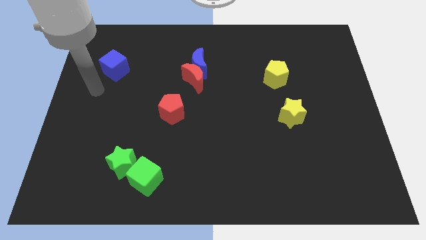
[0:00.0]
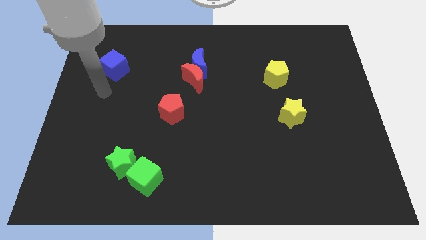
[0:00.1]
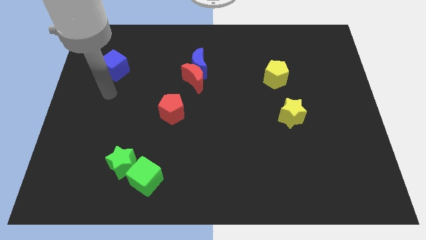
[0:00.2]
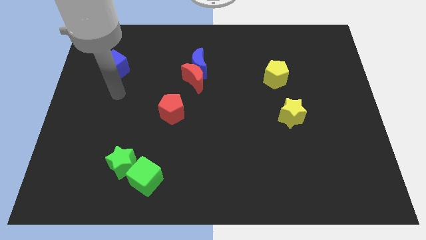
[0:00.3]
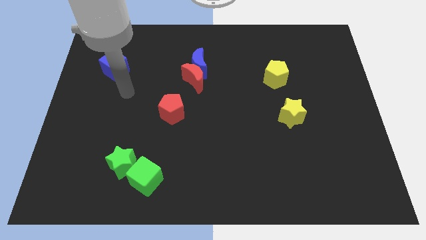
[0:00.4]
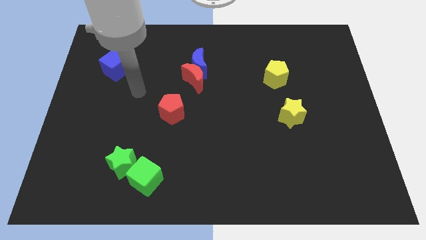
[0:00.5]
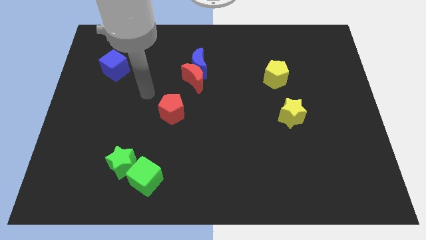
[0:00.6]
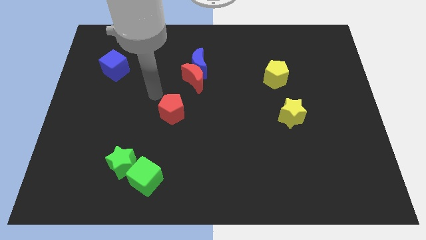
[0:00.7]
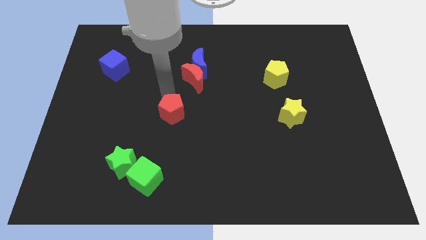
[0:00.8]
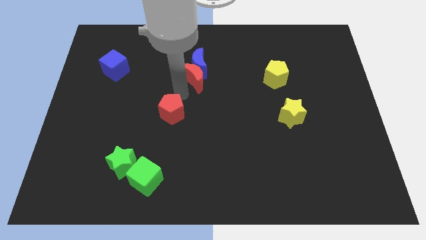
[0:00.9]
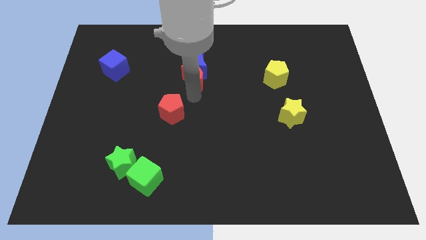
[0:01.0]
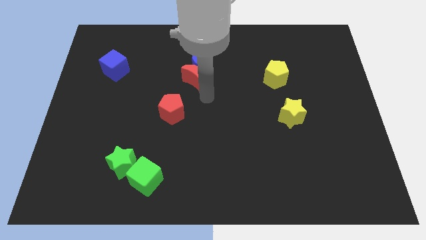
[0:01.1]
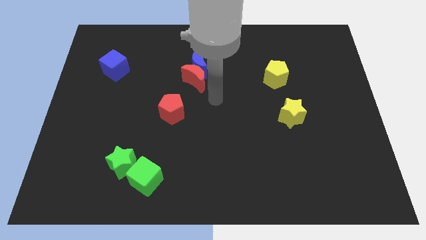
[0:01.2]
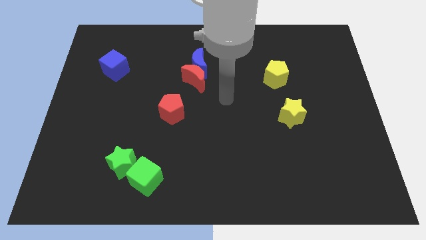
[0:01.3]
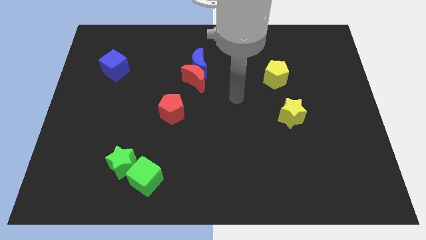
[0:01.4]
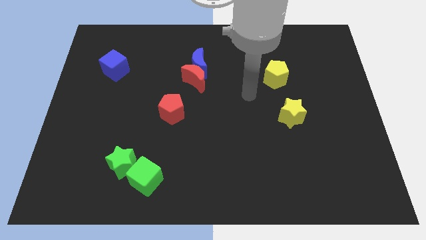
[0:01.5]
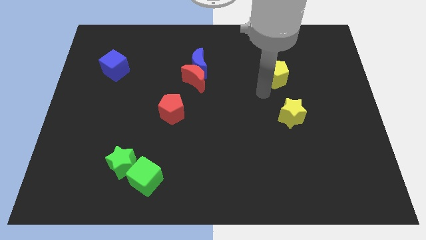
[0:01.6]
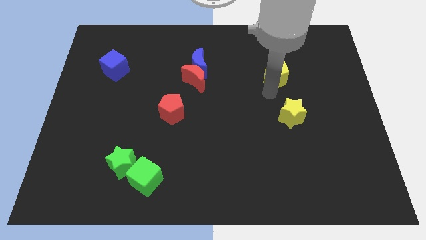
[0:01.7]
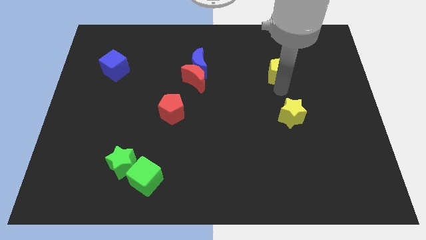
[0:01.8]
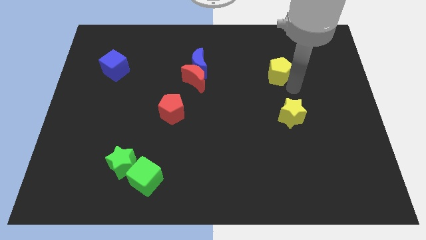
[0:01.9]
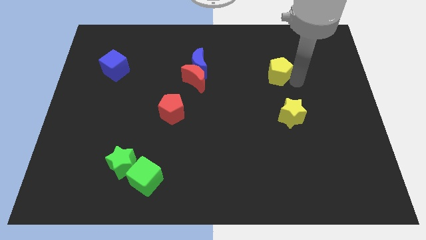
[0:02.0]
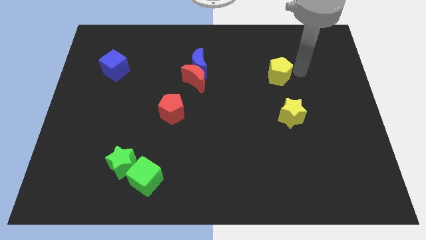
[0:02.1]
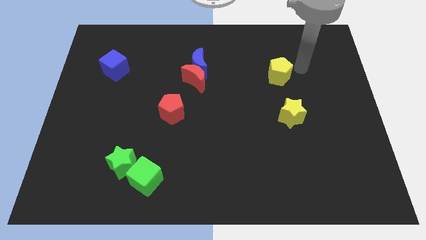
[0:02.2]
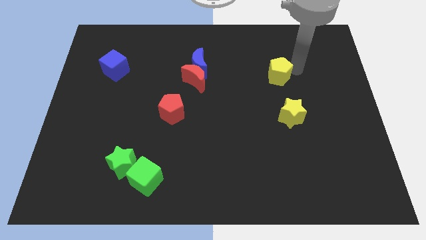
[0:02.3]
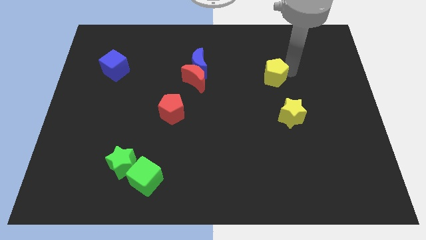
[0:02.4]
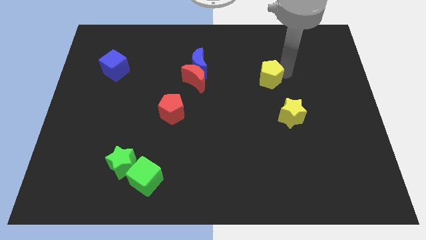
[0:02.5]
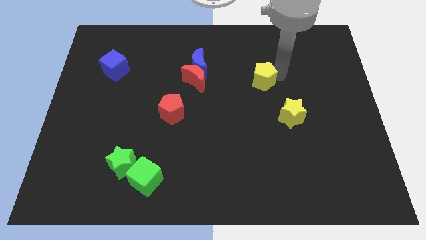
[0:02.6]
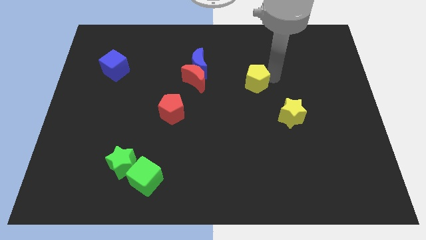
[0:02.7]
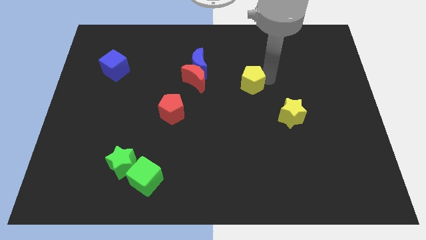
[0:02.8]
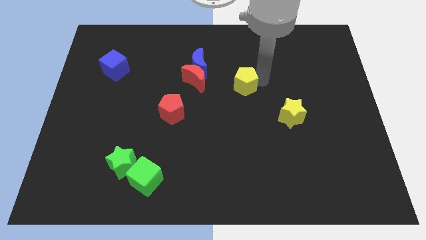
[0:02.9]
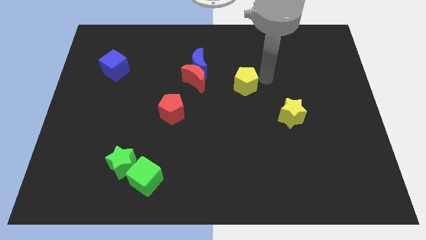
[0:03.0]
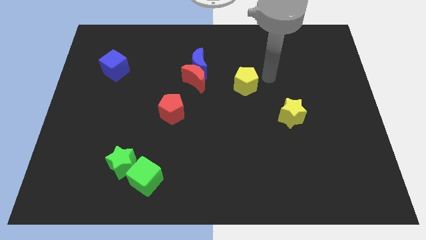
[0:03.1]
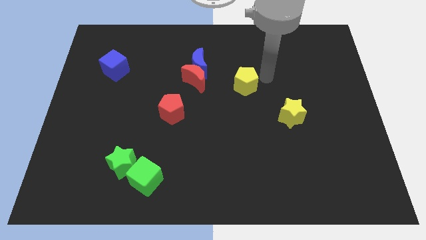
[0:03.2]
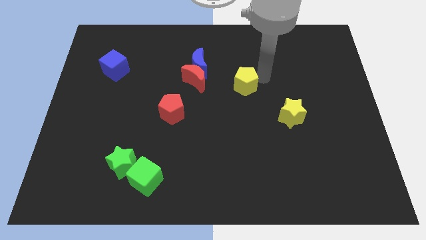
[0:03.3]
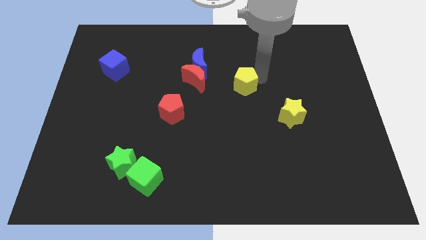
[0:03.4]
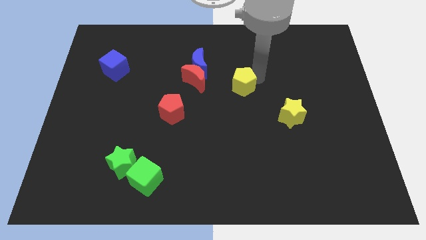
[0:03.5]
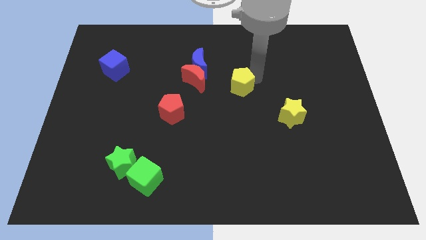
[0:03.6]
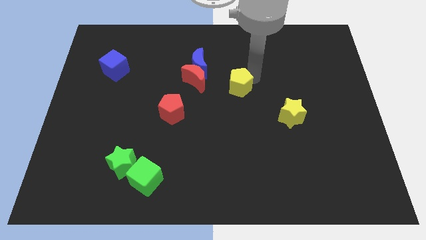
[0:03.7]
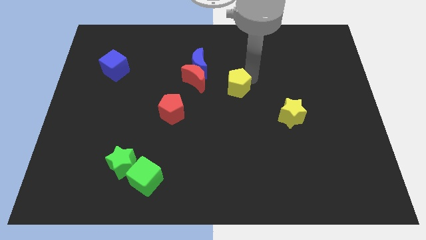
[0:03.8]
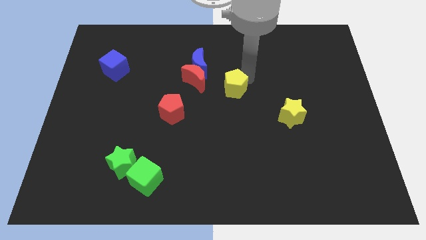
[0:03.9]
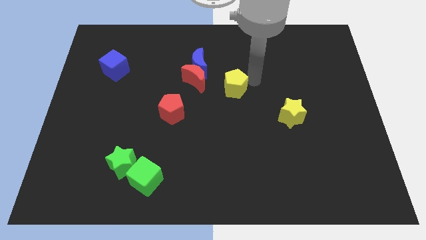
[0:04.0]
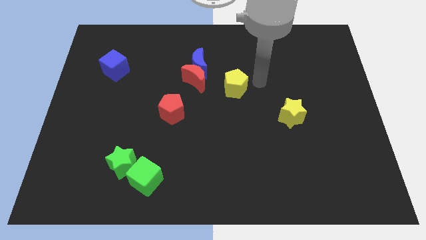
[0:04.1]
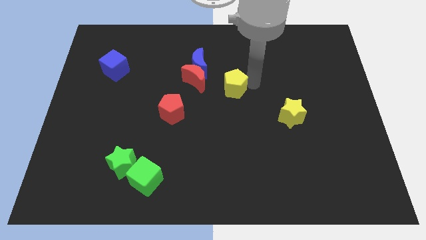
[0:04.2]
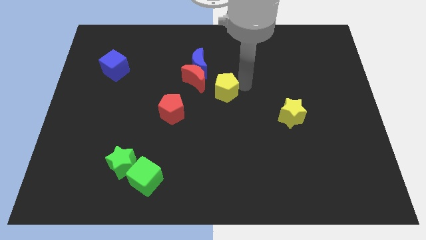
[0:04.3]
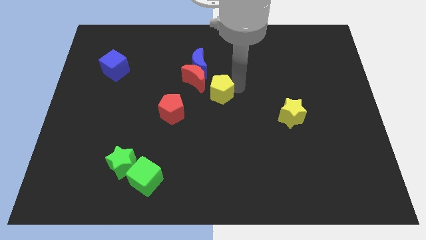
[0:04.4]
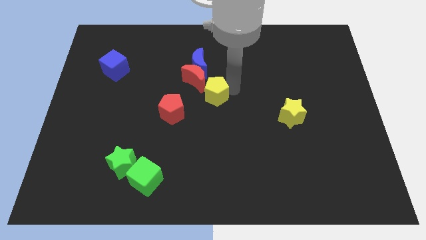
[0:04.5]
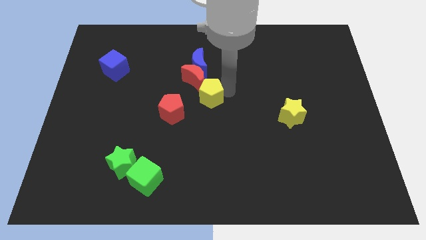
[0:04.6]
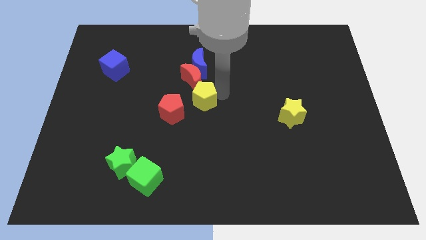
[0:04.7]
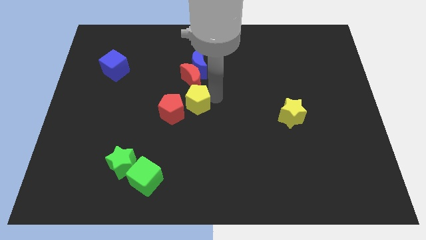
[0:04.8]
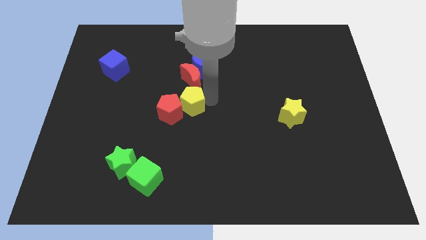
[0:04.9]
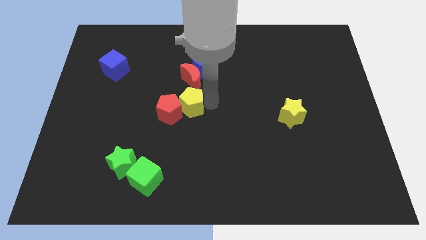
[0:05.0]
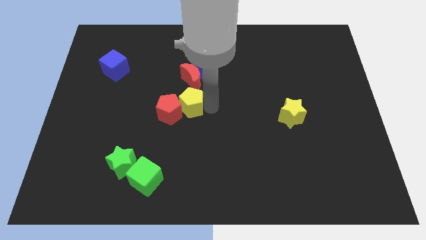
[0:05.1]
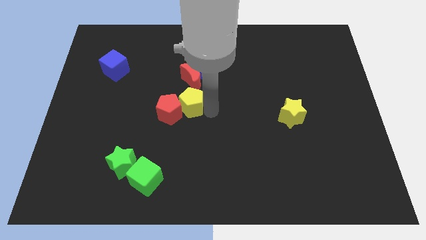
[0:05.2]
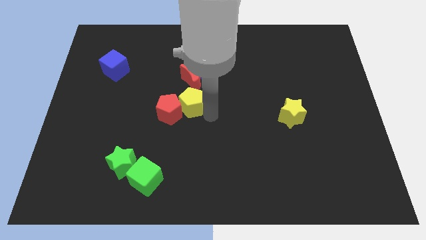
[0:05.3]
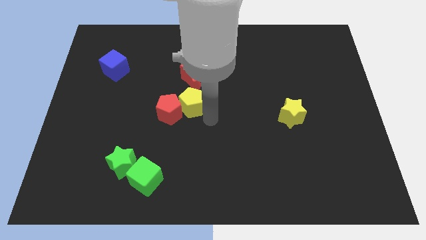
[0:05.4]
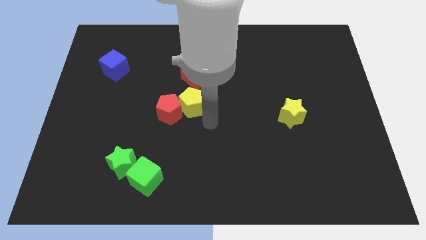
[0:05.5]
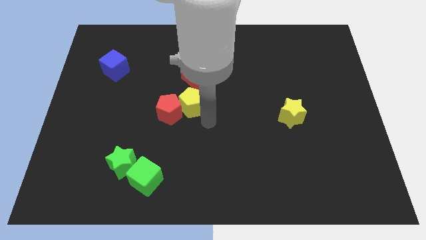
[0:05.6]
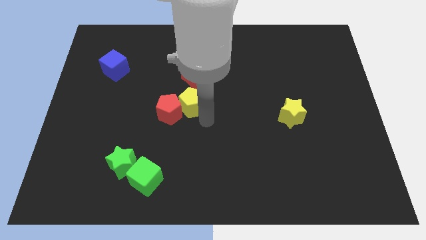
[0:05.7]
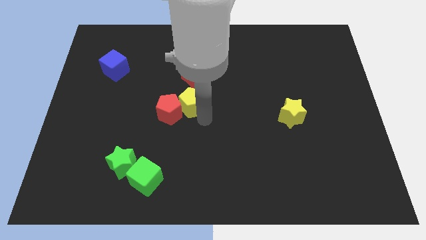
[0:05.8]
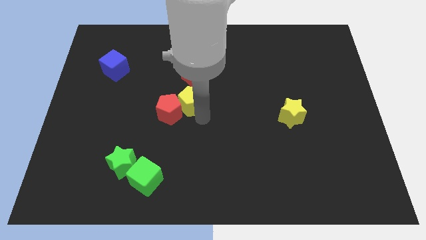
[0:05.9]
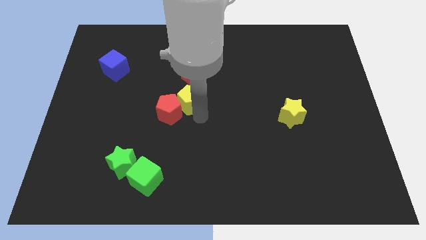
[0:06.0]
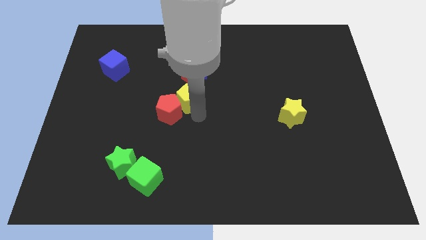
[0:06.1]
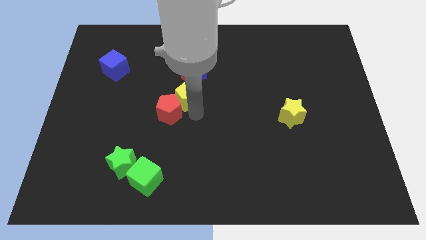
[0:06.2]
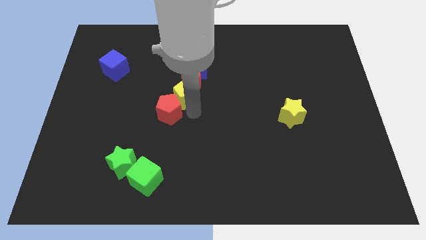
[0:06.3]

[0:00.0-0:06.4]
move the yellow pentagon to the left

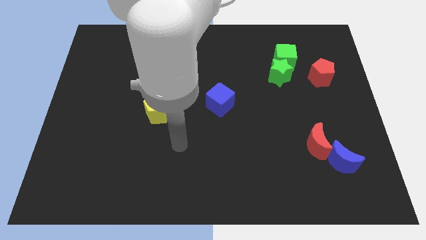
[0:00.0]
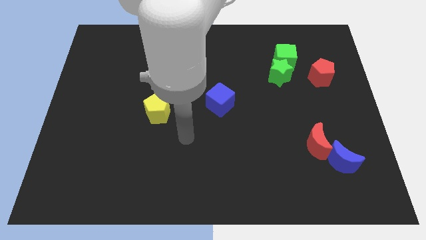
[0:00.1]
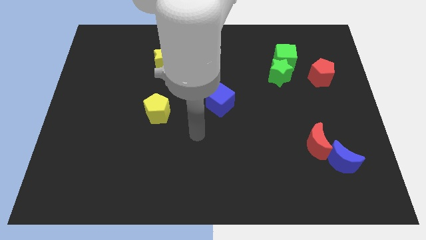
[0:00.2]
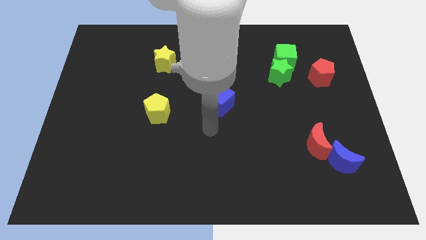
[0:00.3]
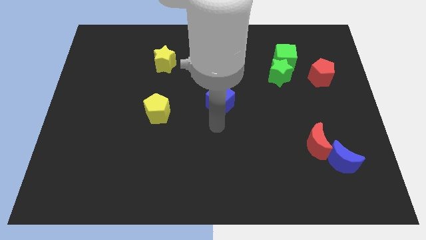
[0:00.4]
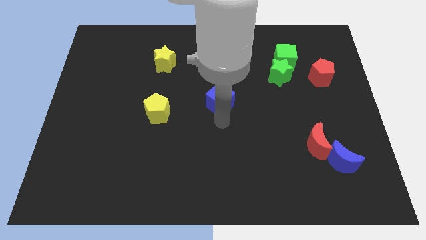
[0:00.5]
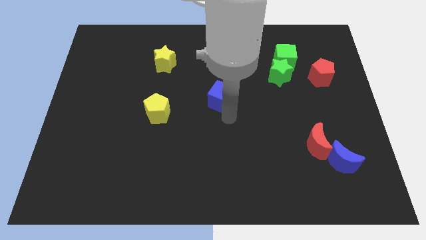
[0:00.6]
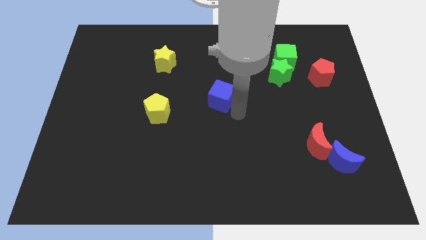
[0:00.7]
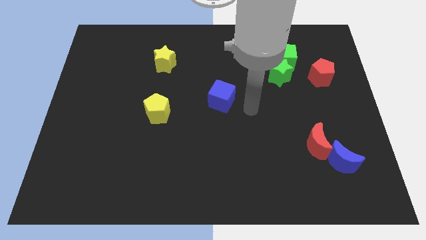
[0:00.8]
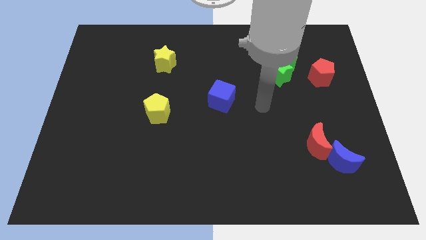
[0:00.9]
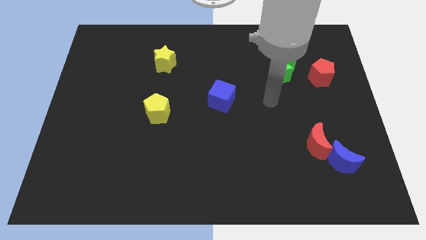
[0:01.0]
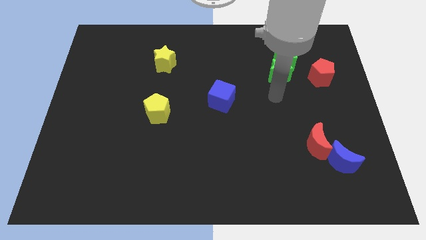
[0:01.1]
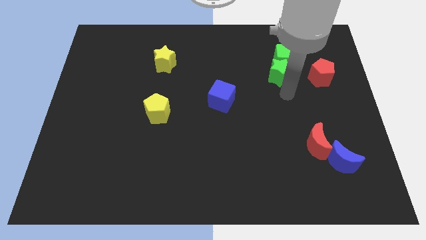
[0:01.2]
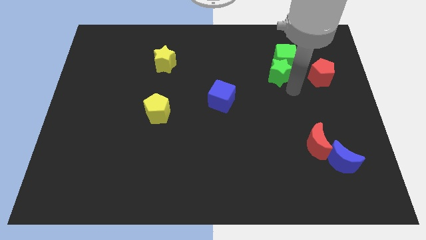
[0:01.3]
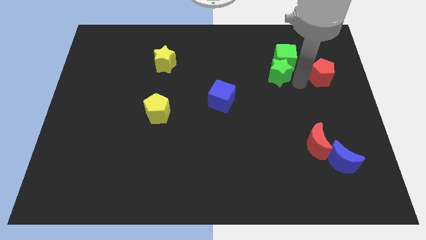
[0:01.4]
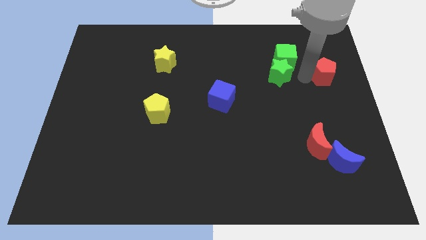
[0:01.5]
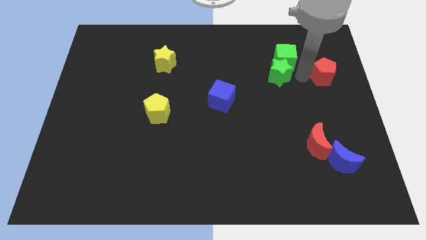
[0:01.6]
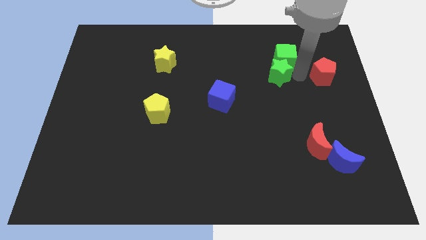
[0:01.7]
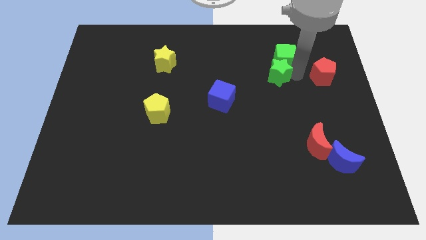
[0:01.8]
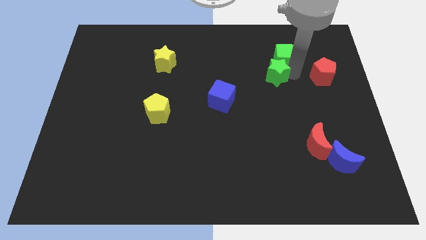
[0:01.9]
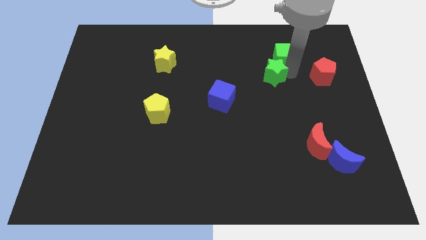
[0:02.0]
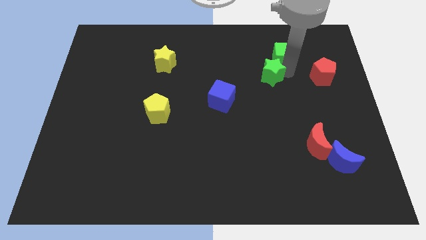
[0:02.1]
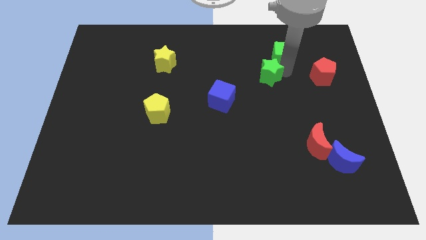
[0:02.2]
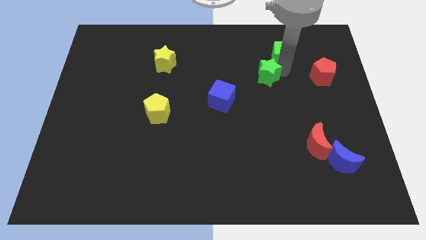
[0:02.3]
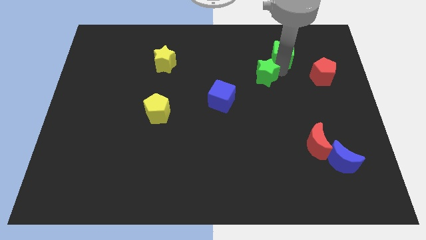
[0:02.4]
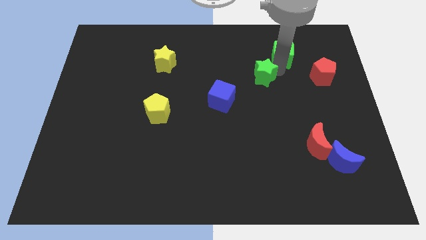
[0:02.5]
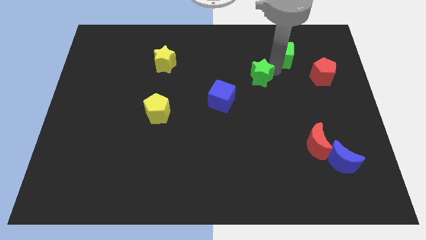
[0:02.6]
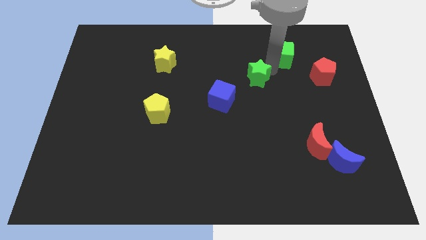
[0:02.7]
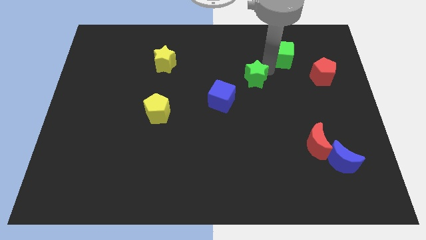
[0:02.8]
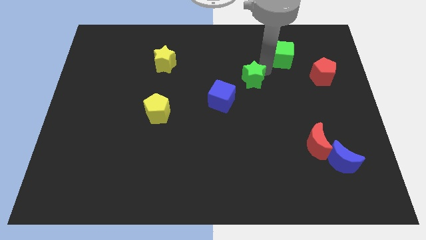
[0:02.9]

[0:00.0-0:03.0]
slightly push the green star left
